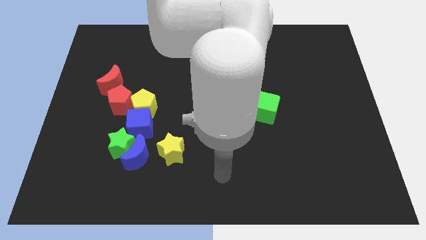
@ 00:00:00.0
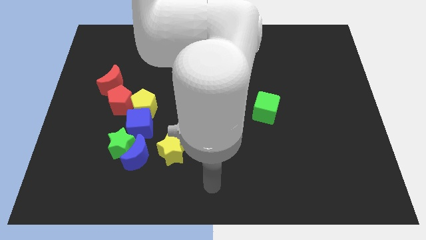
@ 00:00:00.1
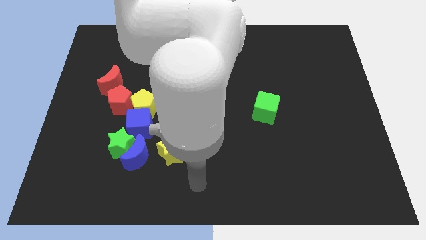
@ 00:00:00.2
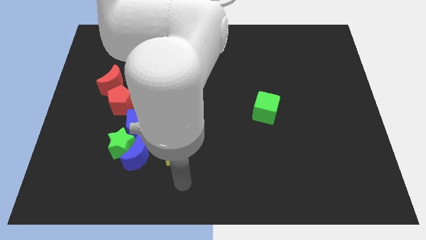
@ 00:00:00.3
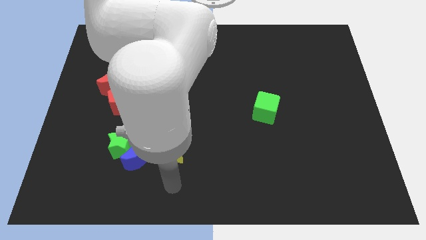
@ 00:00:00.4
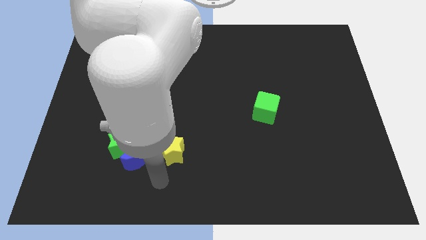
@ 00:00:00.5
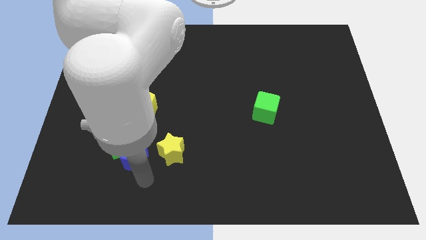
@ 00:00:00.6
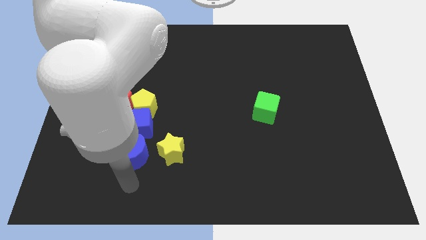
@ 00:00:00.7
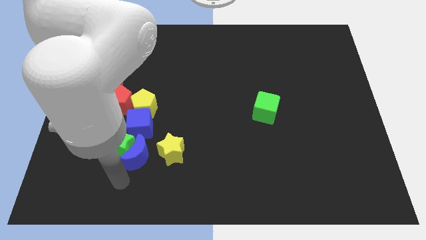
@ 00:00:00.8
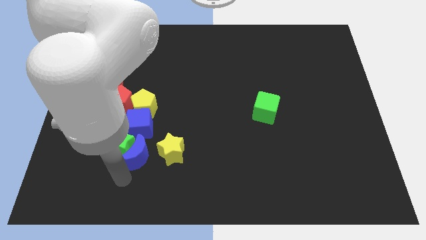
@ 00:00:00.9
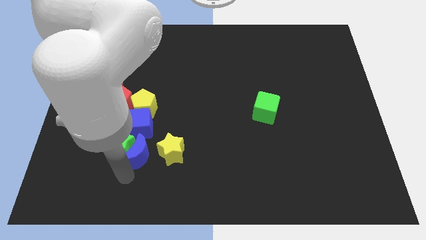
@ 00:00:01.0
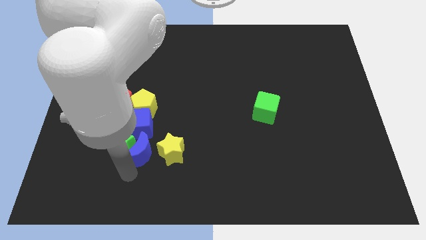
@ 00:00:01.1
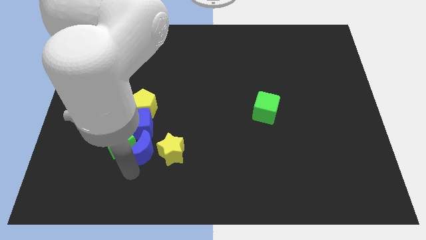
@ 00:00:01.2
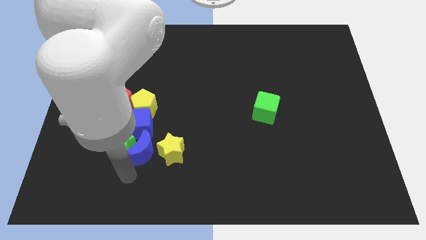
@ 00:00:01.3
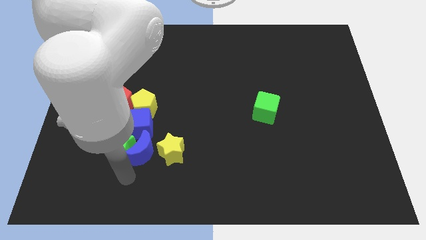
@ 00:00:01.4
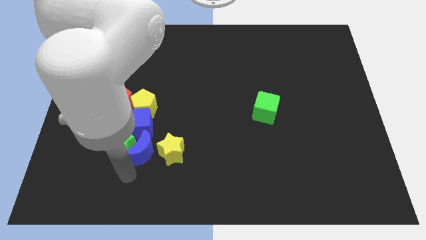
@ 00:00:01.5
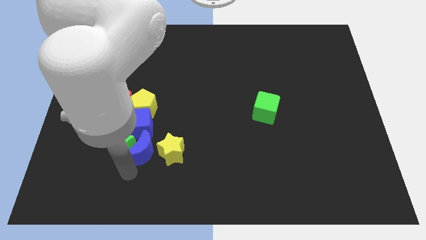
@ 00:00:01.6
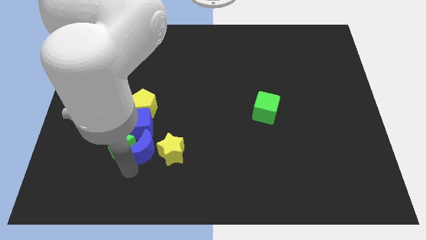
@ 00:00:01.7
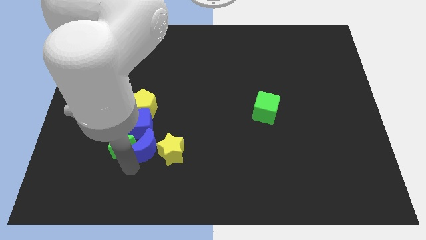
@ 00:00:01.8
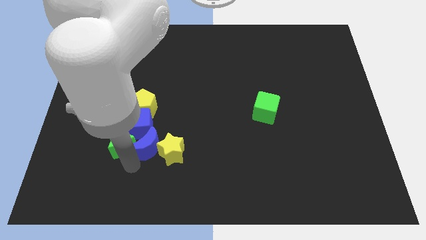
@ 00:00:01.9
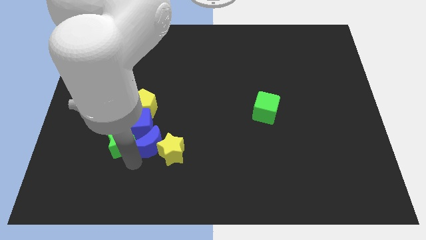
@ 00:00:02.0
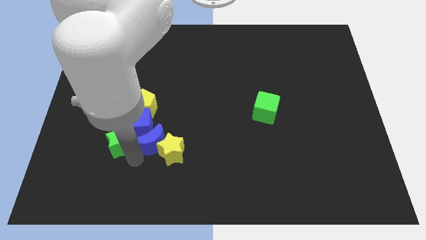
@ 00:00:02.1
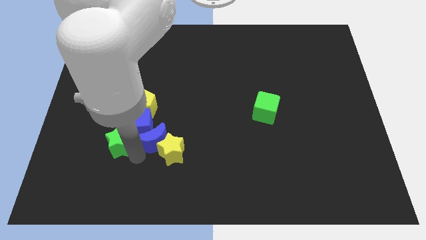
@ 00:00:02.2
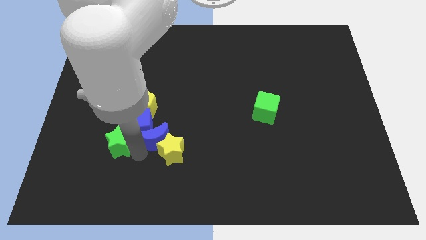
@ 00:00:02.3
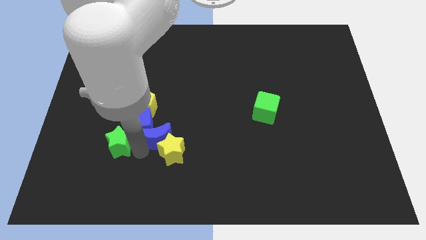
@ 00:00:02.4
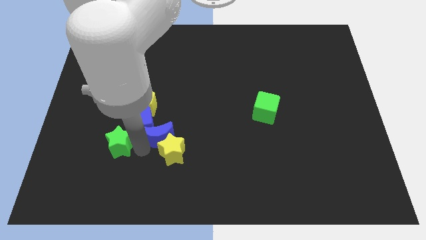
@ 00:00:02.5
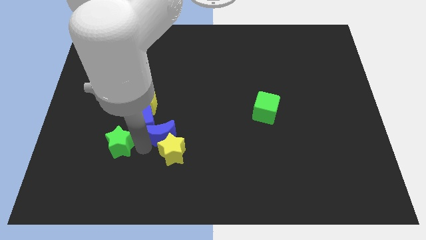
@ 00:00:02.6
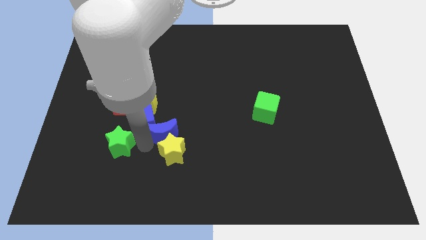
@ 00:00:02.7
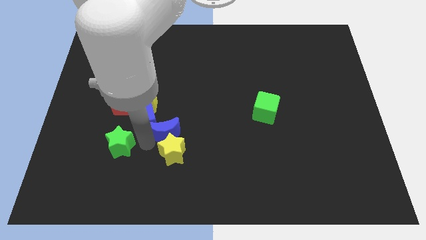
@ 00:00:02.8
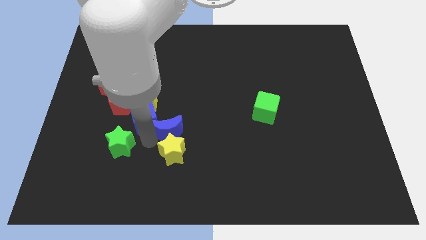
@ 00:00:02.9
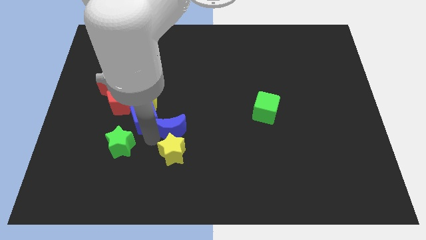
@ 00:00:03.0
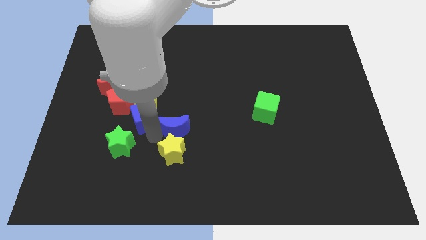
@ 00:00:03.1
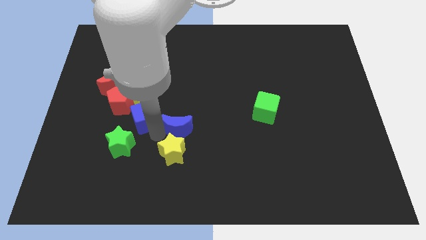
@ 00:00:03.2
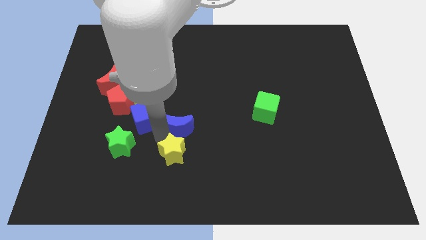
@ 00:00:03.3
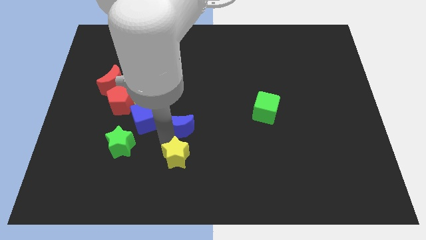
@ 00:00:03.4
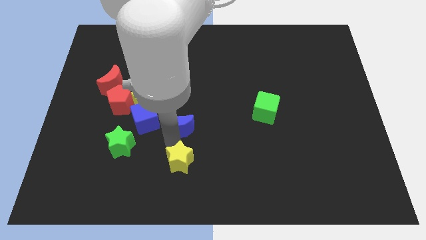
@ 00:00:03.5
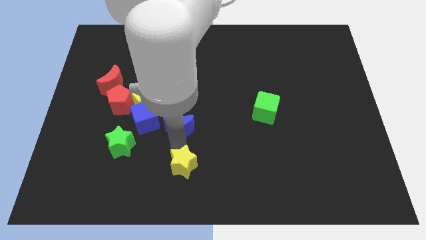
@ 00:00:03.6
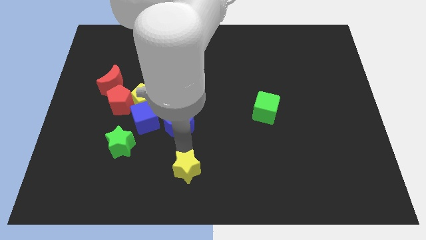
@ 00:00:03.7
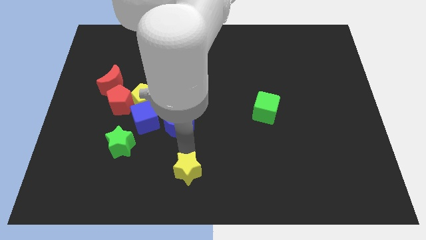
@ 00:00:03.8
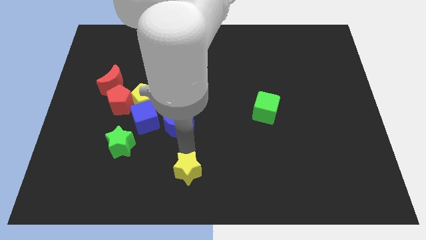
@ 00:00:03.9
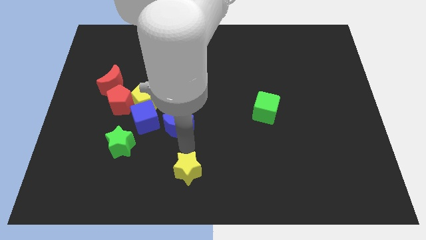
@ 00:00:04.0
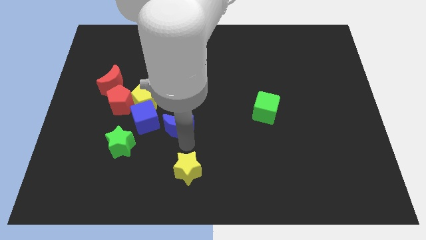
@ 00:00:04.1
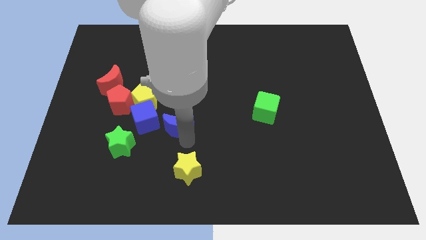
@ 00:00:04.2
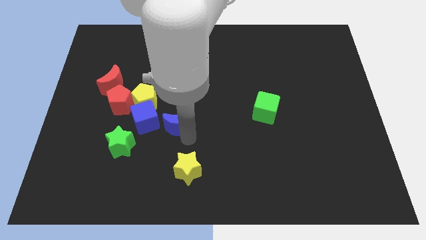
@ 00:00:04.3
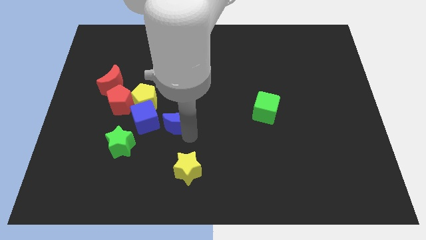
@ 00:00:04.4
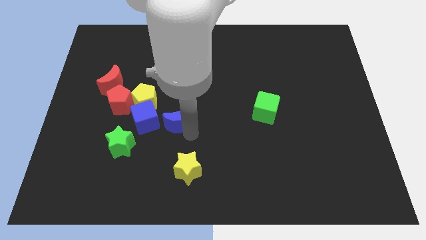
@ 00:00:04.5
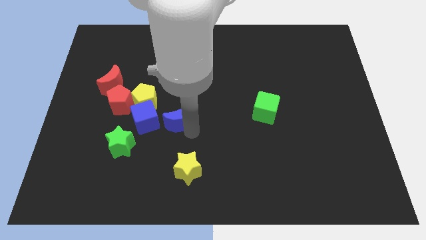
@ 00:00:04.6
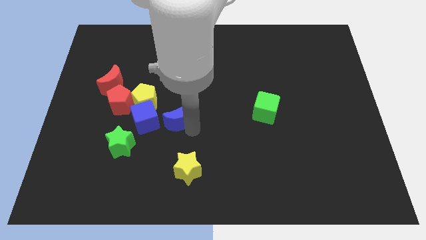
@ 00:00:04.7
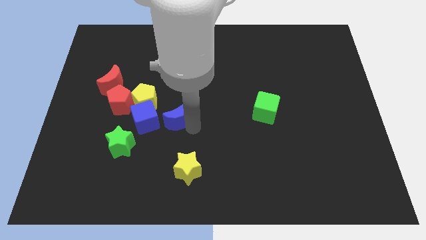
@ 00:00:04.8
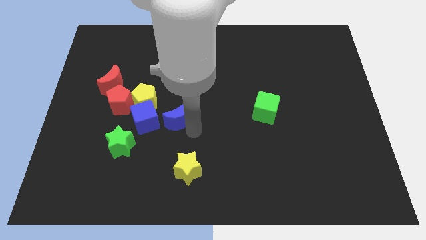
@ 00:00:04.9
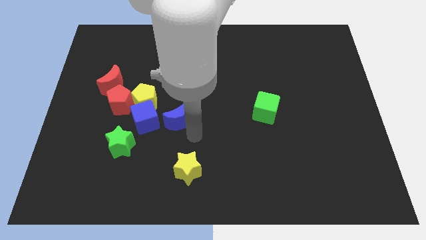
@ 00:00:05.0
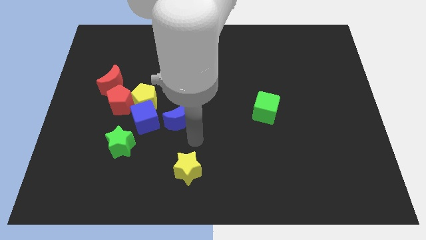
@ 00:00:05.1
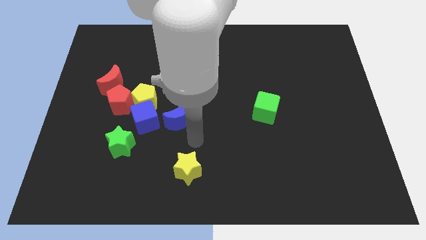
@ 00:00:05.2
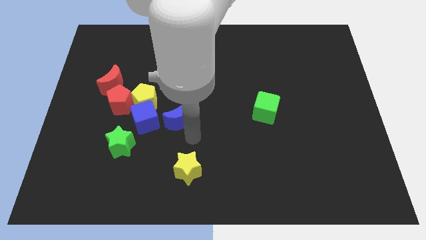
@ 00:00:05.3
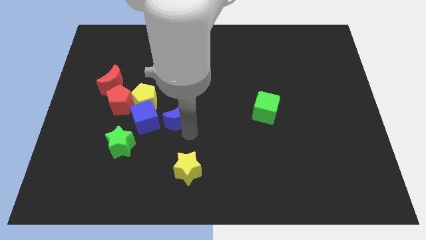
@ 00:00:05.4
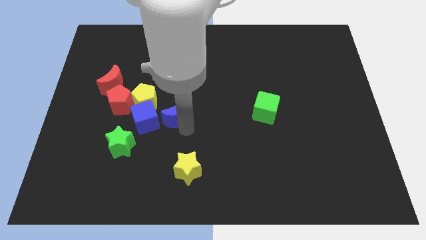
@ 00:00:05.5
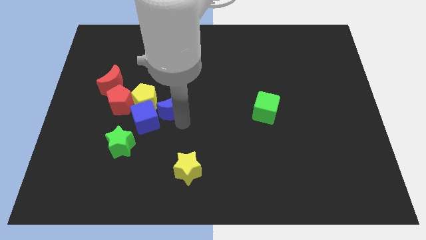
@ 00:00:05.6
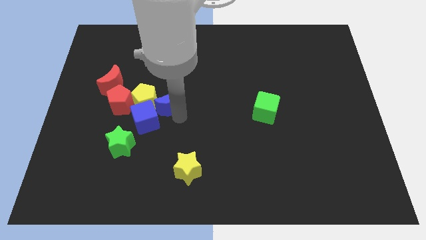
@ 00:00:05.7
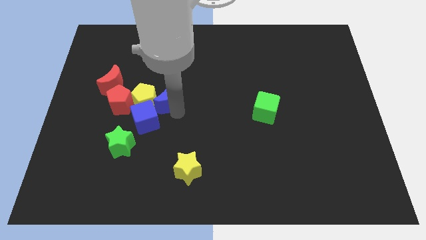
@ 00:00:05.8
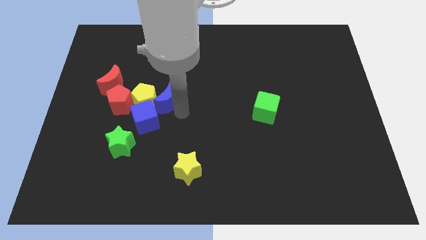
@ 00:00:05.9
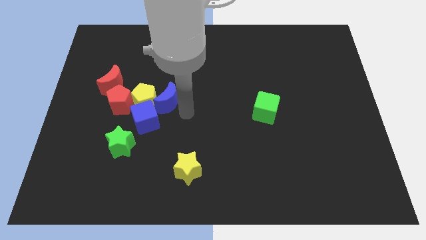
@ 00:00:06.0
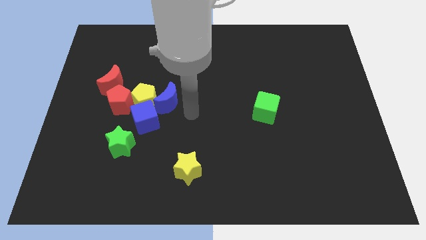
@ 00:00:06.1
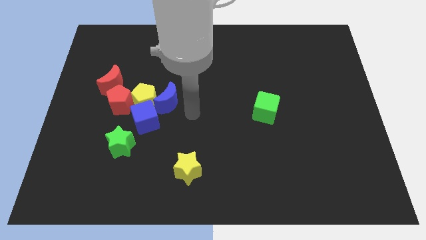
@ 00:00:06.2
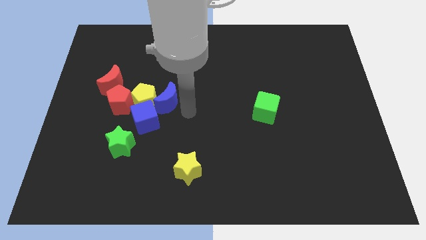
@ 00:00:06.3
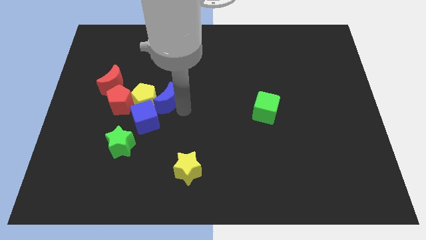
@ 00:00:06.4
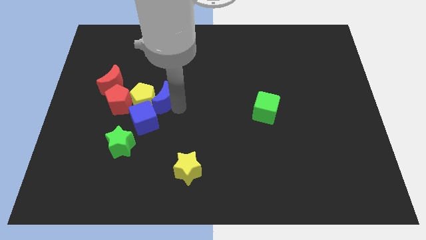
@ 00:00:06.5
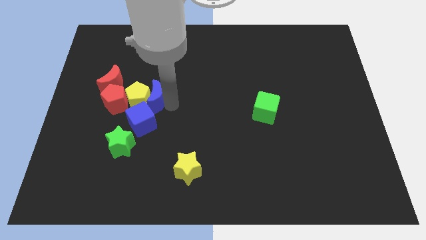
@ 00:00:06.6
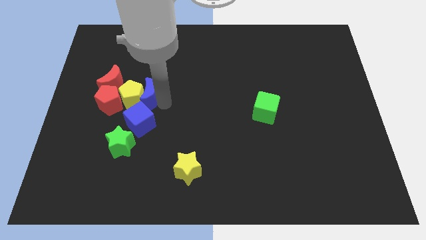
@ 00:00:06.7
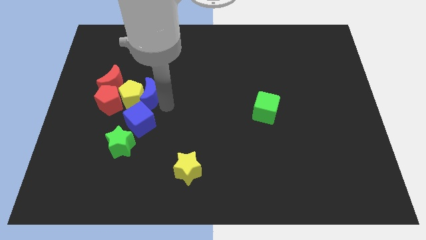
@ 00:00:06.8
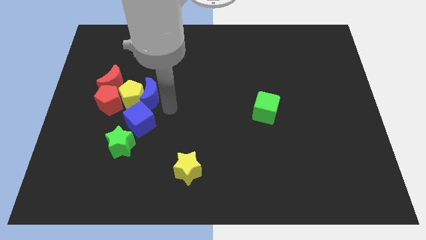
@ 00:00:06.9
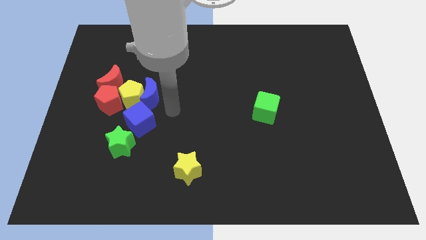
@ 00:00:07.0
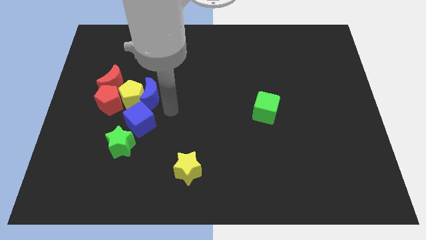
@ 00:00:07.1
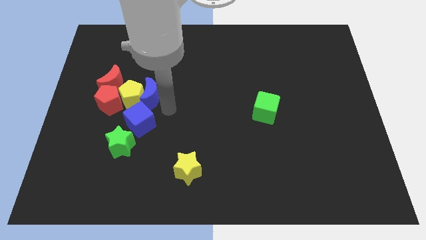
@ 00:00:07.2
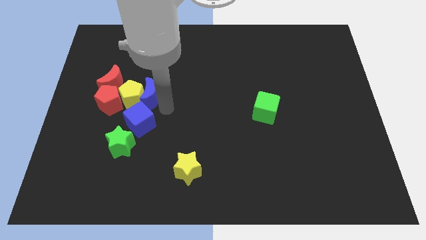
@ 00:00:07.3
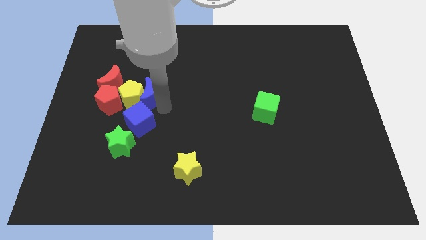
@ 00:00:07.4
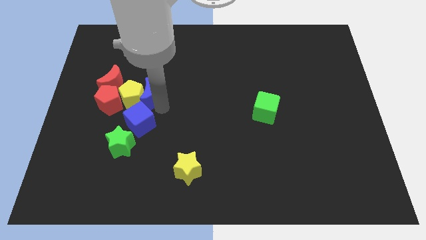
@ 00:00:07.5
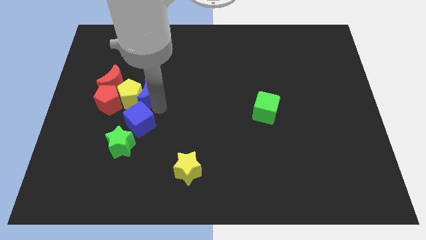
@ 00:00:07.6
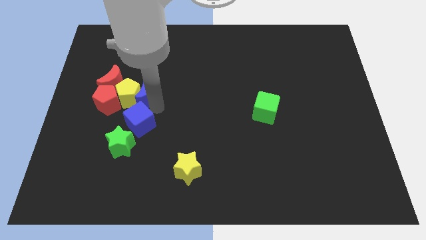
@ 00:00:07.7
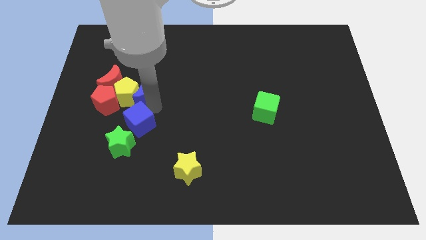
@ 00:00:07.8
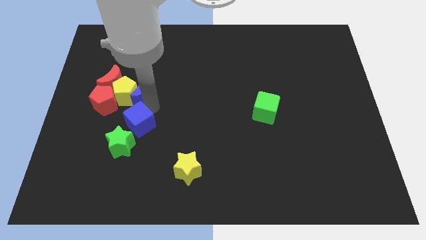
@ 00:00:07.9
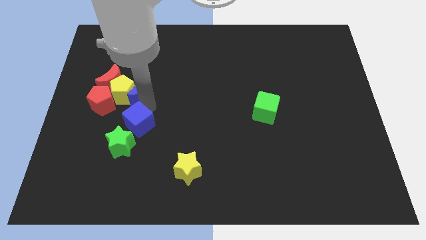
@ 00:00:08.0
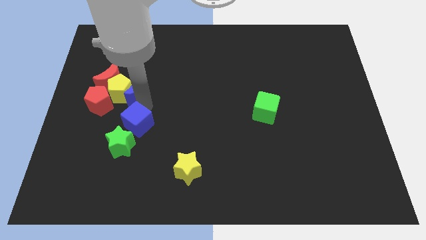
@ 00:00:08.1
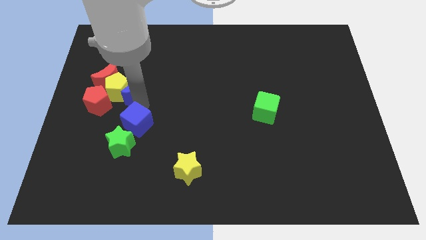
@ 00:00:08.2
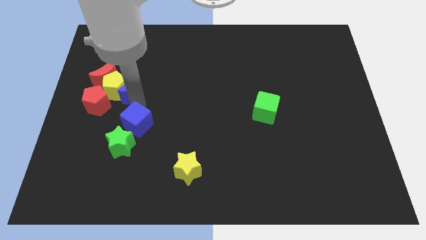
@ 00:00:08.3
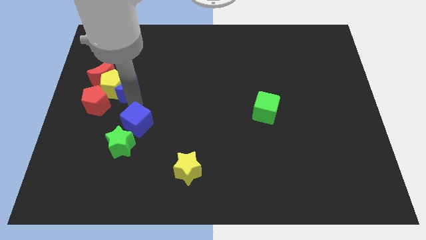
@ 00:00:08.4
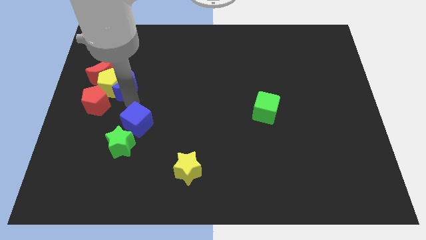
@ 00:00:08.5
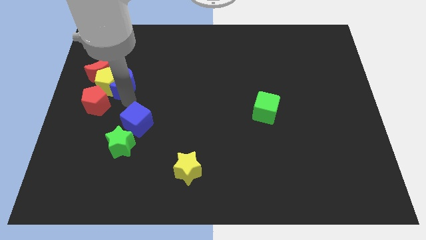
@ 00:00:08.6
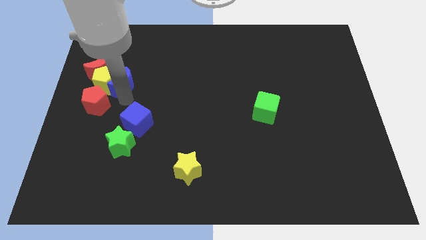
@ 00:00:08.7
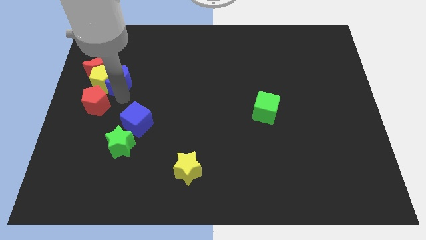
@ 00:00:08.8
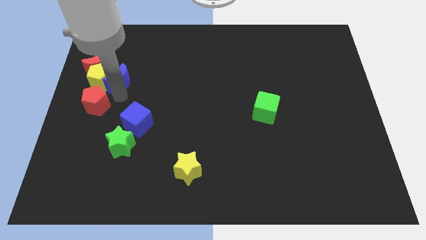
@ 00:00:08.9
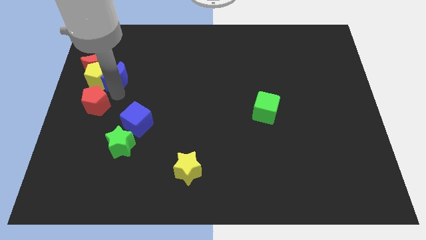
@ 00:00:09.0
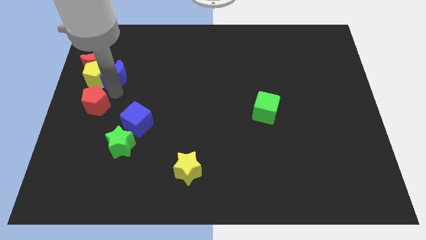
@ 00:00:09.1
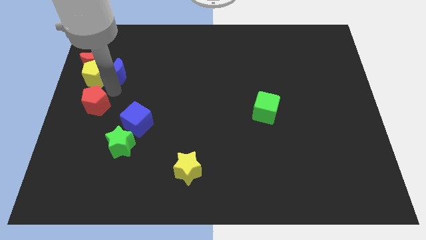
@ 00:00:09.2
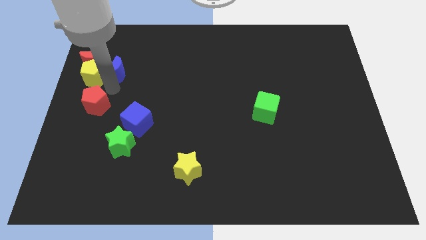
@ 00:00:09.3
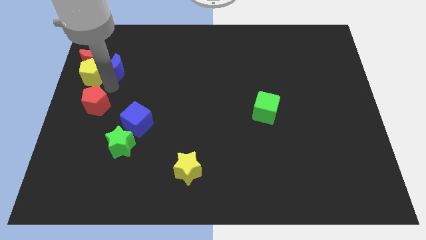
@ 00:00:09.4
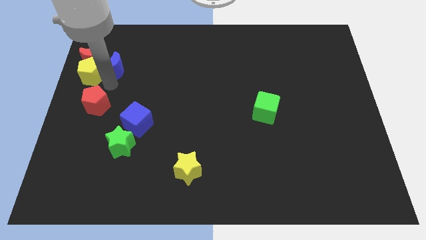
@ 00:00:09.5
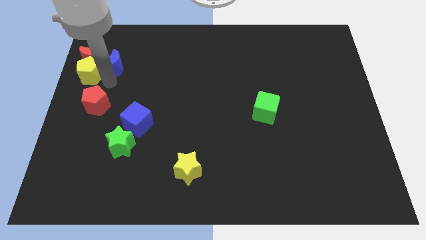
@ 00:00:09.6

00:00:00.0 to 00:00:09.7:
move the blue moon to the red moon
